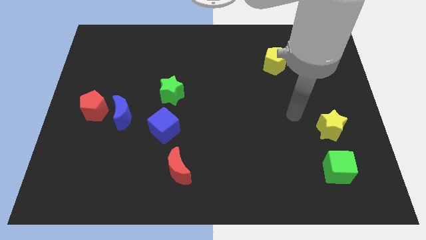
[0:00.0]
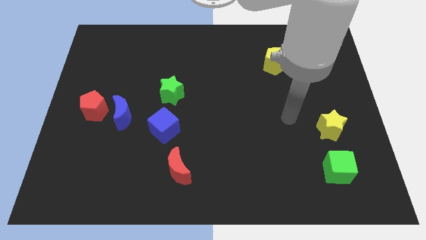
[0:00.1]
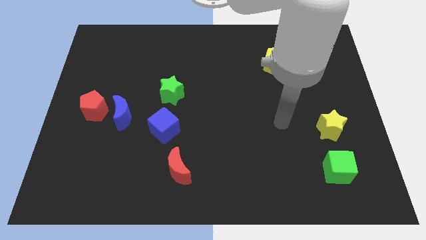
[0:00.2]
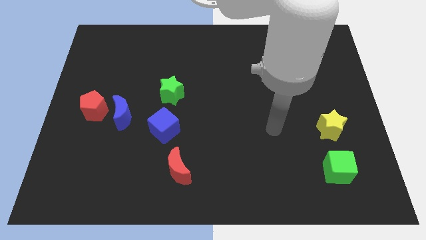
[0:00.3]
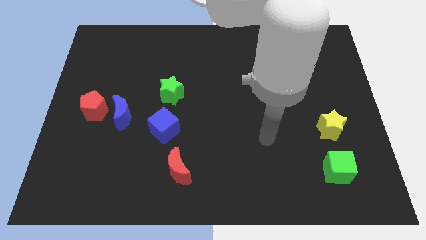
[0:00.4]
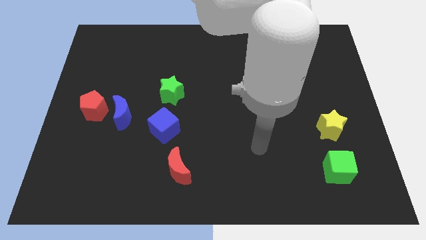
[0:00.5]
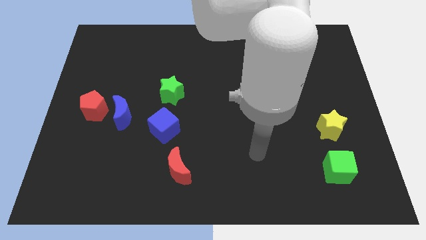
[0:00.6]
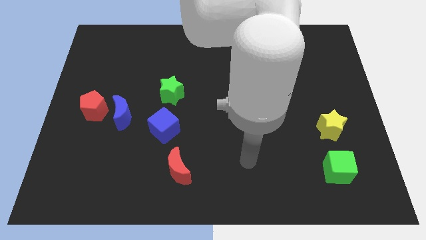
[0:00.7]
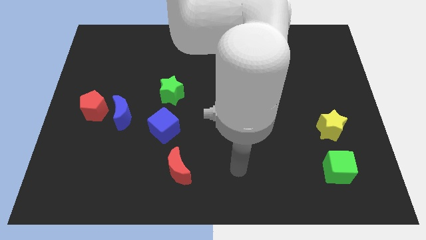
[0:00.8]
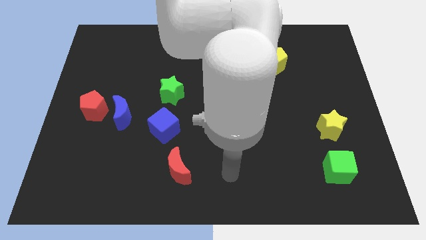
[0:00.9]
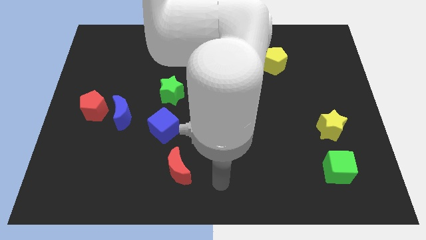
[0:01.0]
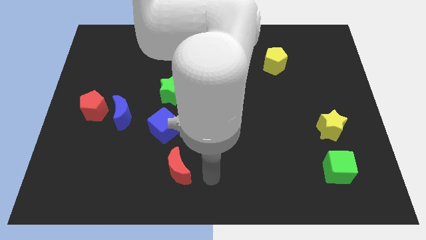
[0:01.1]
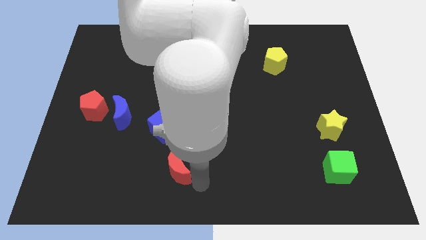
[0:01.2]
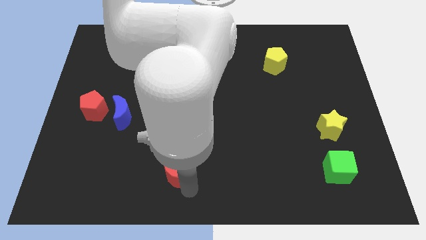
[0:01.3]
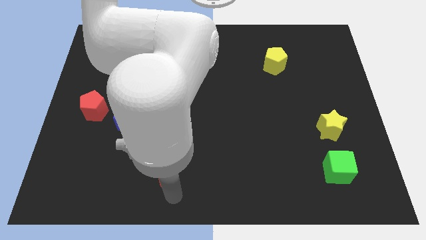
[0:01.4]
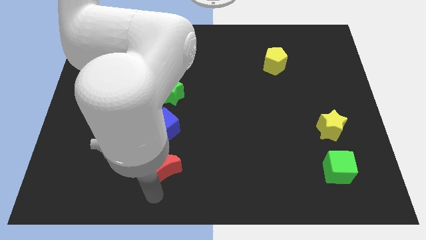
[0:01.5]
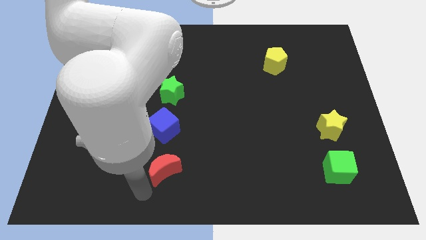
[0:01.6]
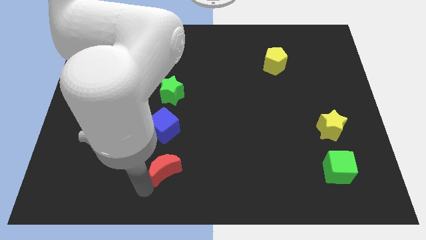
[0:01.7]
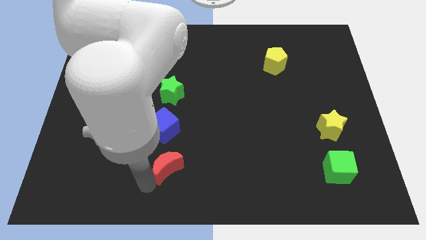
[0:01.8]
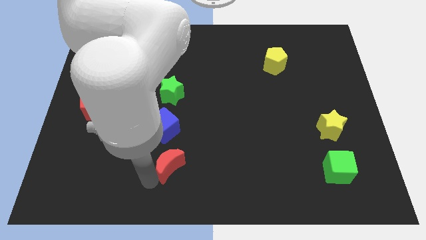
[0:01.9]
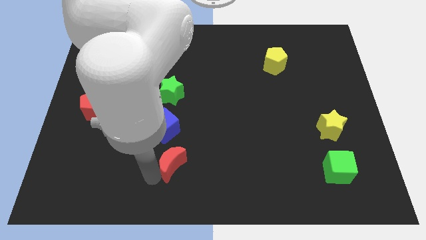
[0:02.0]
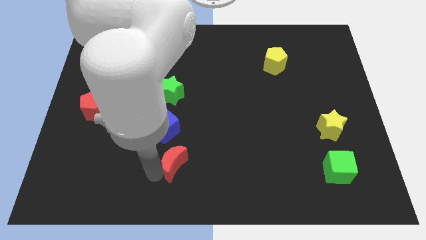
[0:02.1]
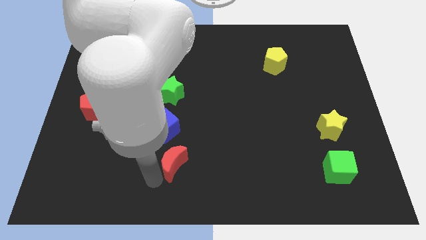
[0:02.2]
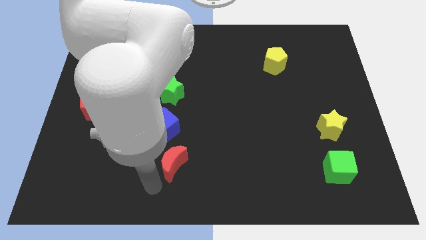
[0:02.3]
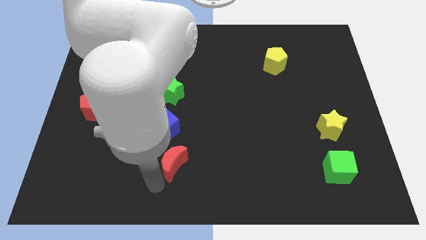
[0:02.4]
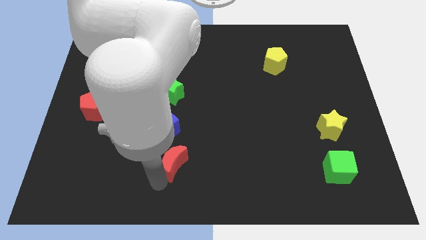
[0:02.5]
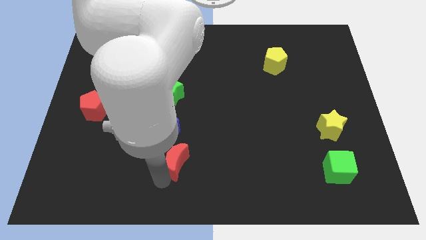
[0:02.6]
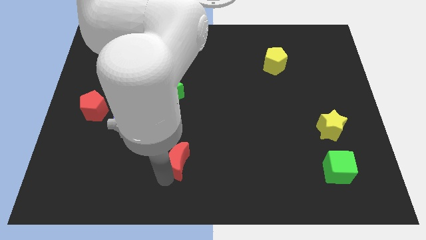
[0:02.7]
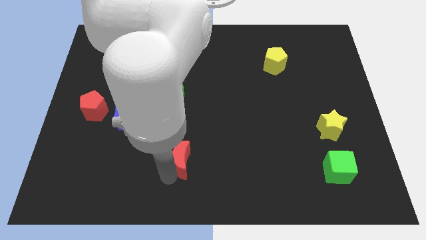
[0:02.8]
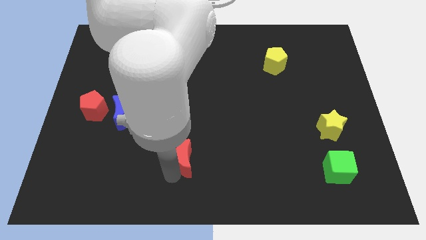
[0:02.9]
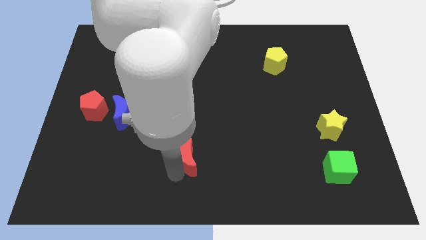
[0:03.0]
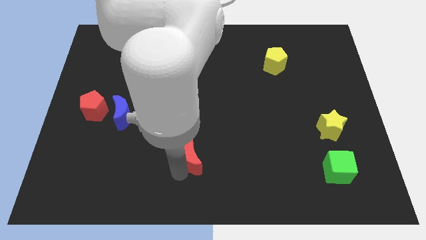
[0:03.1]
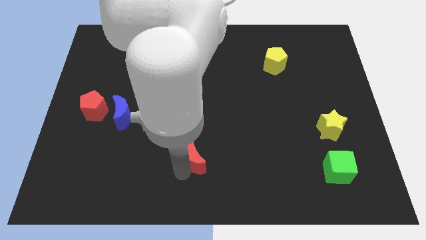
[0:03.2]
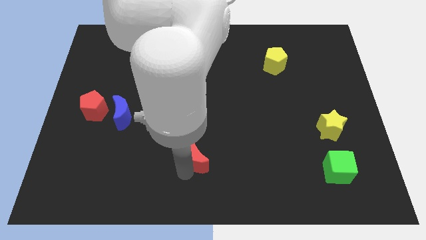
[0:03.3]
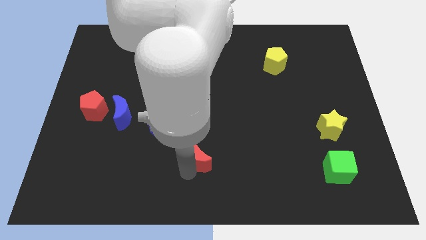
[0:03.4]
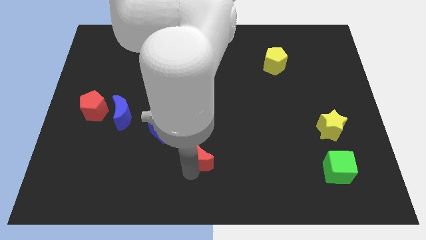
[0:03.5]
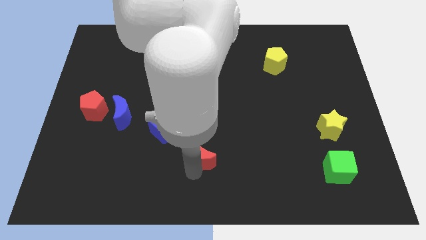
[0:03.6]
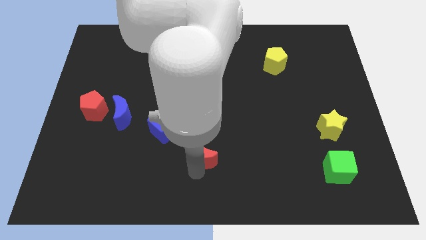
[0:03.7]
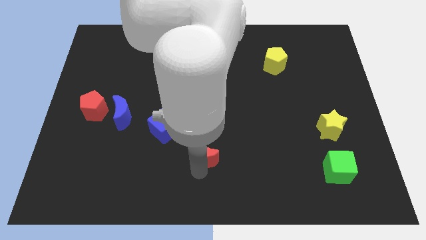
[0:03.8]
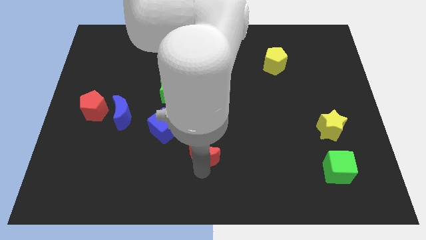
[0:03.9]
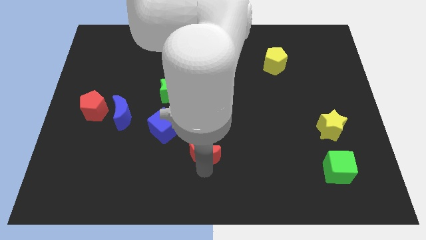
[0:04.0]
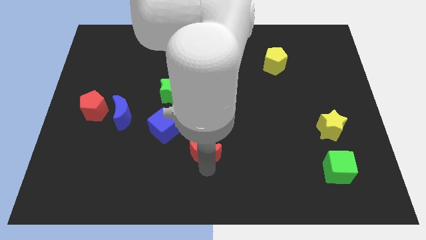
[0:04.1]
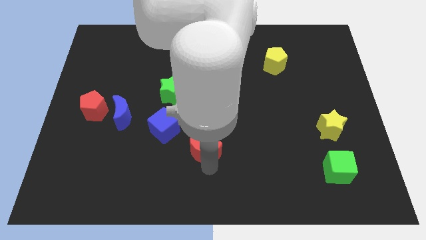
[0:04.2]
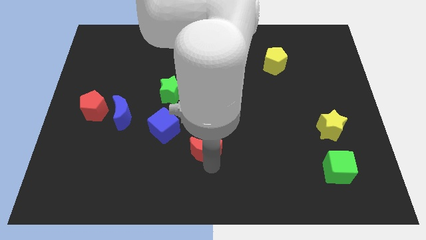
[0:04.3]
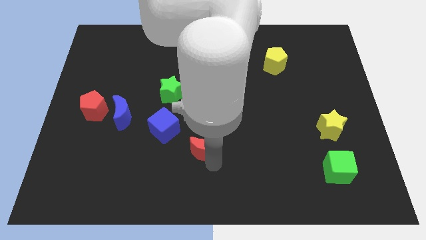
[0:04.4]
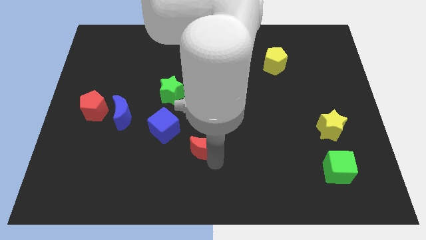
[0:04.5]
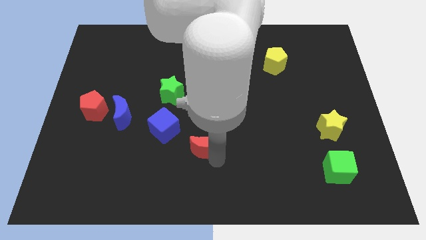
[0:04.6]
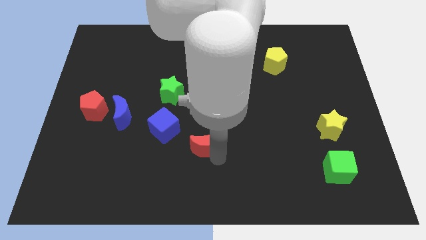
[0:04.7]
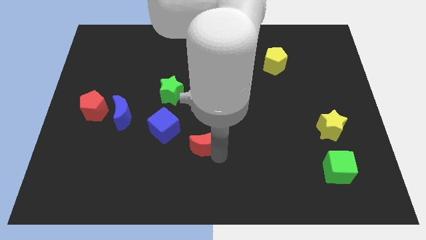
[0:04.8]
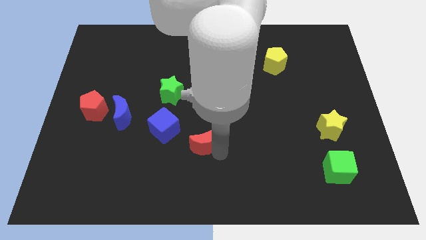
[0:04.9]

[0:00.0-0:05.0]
put the red moon to the middle
